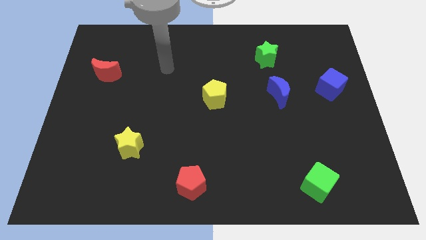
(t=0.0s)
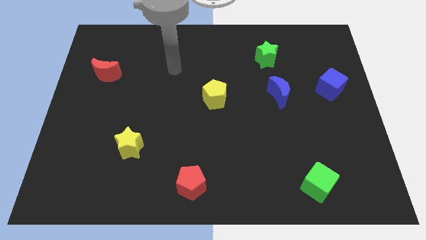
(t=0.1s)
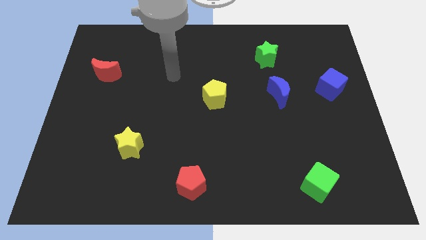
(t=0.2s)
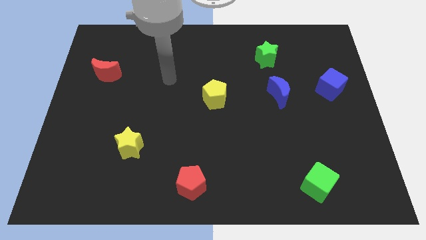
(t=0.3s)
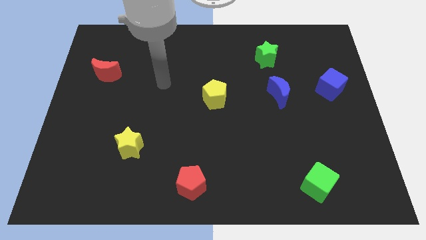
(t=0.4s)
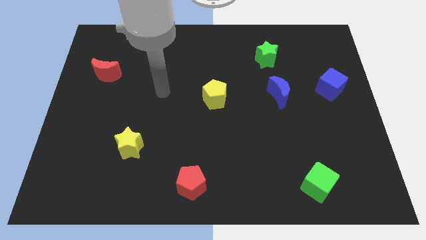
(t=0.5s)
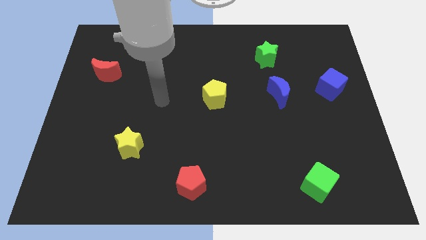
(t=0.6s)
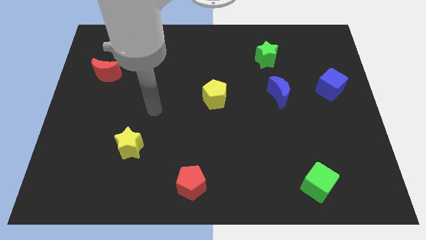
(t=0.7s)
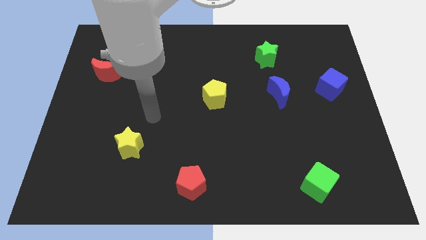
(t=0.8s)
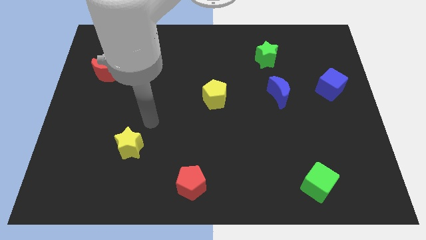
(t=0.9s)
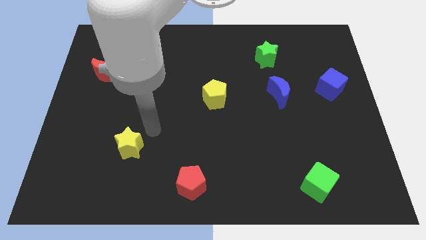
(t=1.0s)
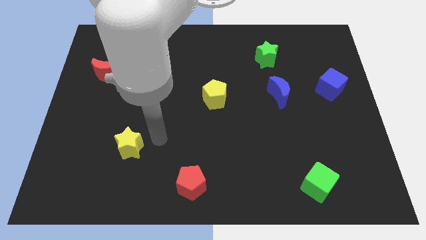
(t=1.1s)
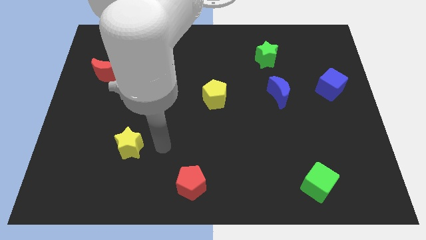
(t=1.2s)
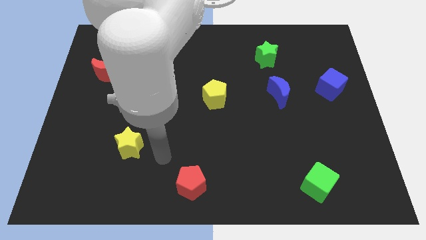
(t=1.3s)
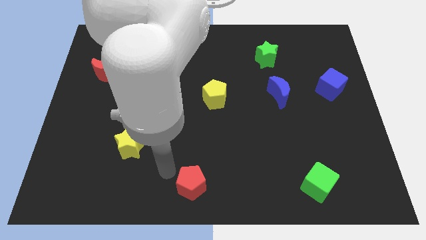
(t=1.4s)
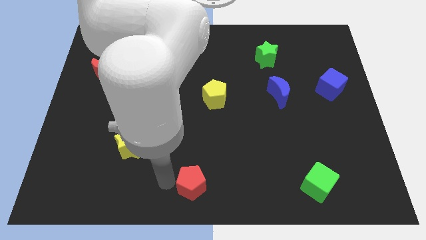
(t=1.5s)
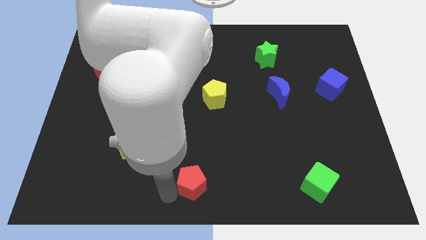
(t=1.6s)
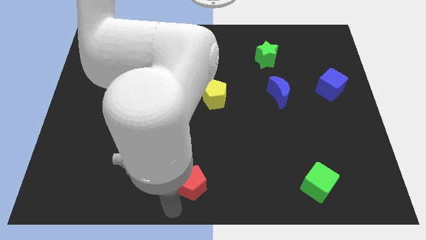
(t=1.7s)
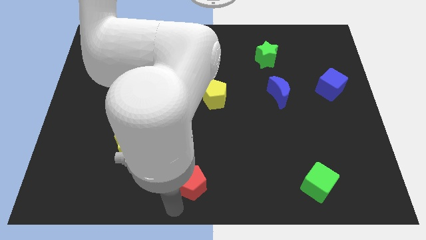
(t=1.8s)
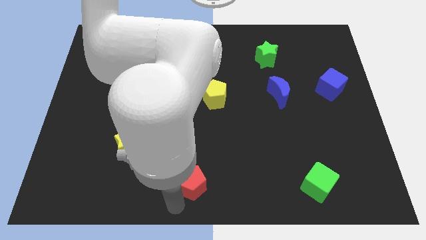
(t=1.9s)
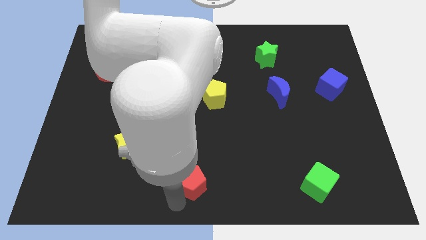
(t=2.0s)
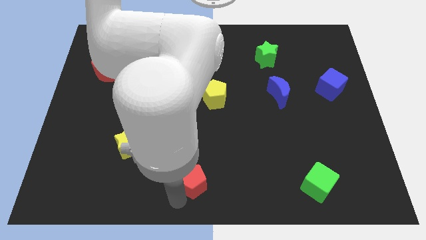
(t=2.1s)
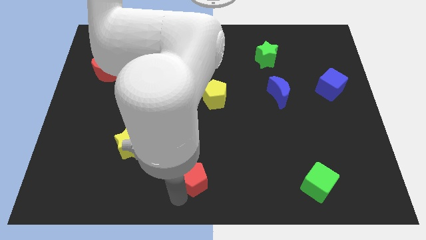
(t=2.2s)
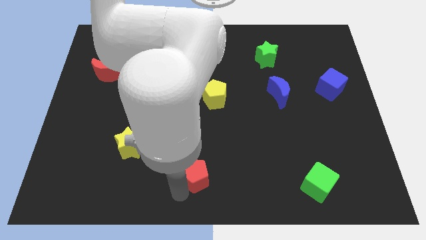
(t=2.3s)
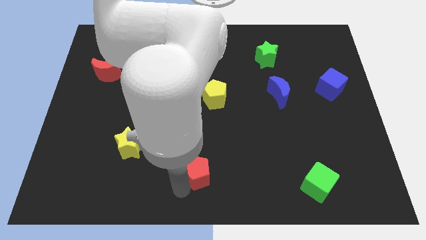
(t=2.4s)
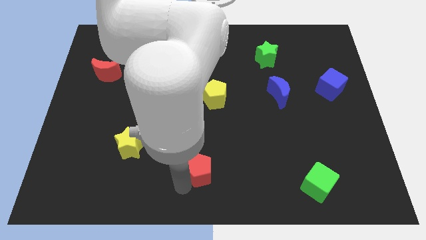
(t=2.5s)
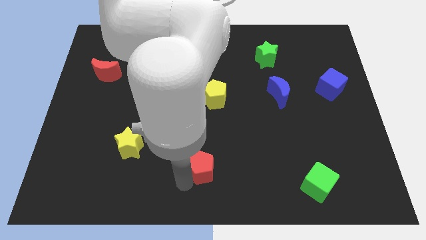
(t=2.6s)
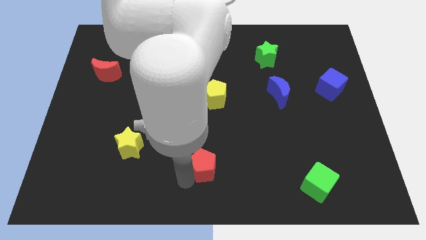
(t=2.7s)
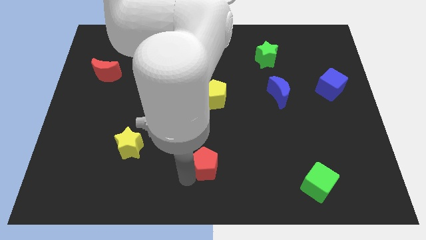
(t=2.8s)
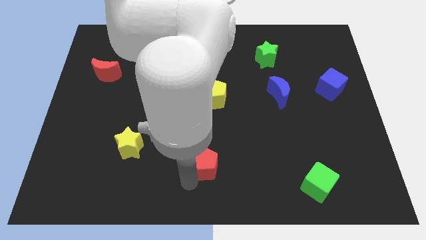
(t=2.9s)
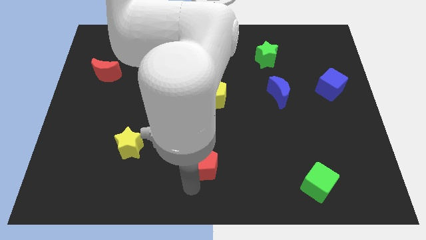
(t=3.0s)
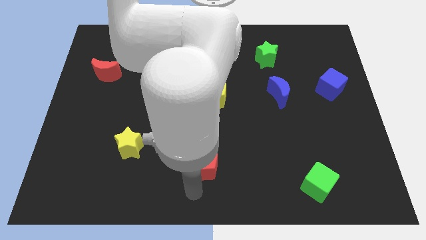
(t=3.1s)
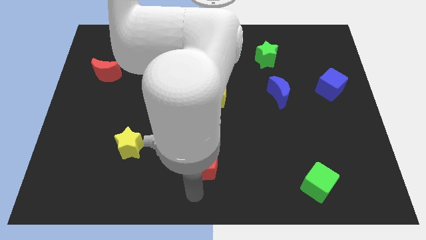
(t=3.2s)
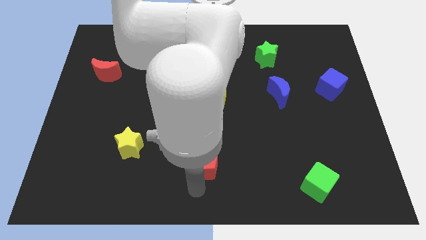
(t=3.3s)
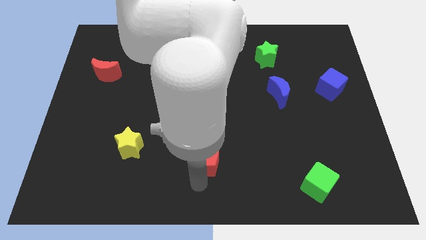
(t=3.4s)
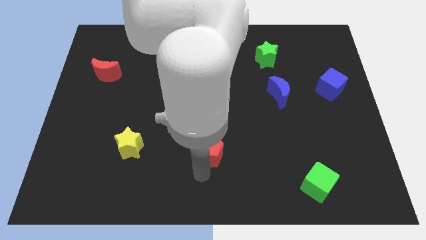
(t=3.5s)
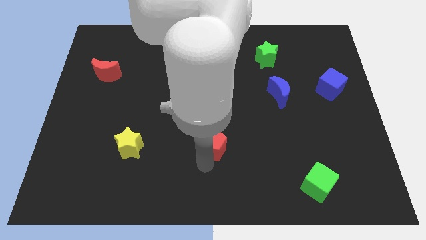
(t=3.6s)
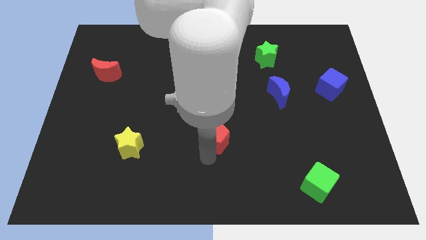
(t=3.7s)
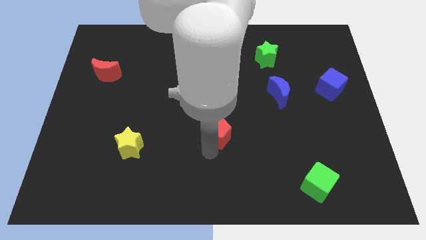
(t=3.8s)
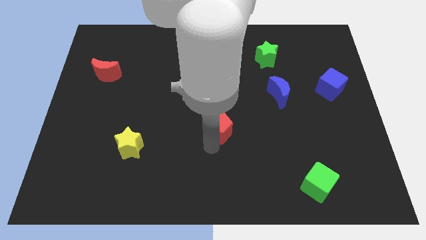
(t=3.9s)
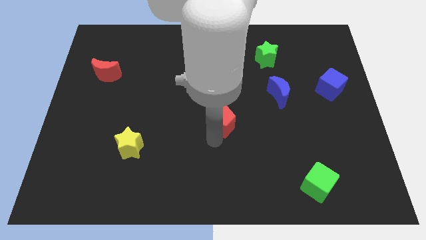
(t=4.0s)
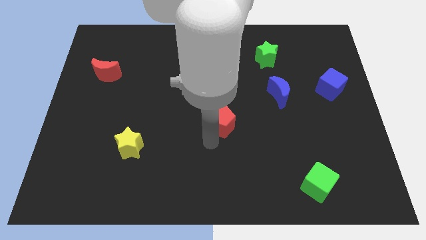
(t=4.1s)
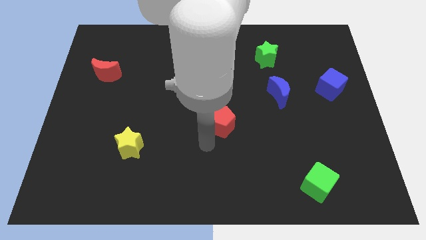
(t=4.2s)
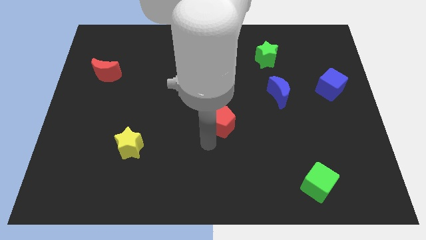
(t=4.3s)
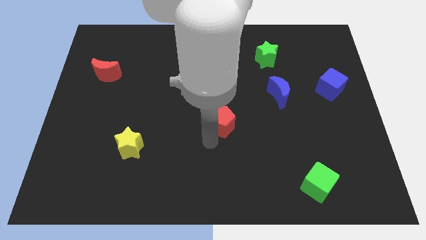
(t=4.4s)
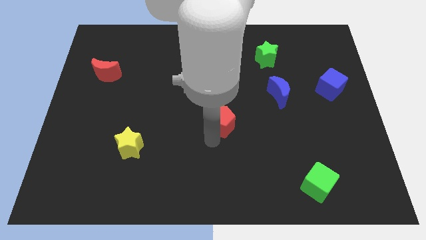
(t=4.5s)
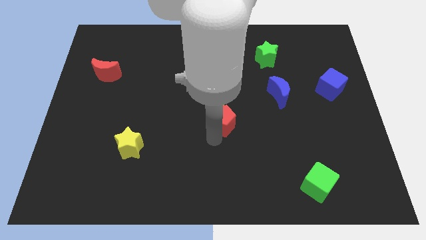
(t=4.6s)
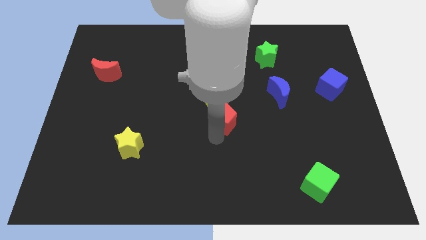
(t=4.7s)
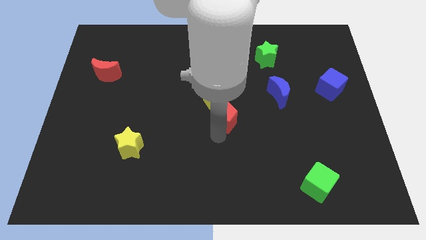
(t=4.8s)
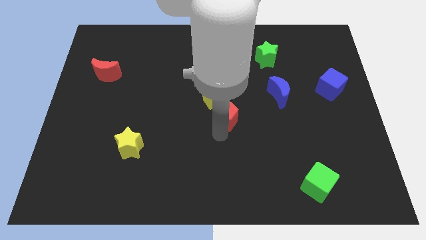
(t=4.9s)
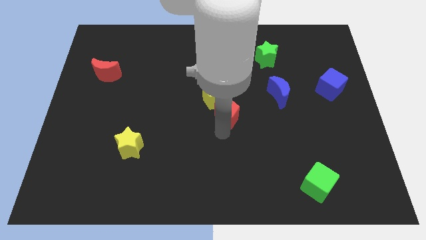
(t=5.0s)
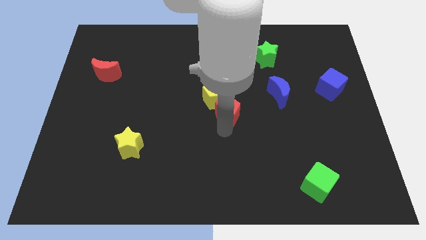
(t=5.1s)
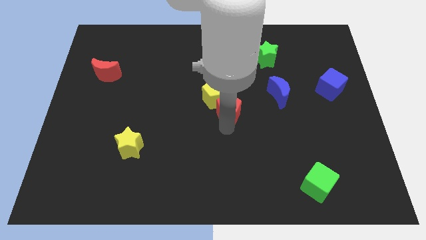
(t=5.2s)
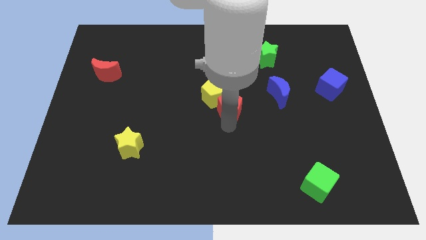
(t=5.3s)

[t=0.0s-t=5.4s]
push the red pentagon to the left side of the blue moon

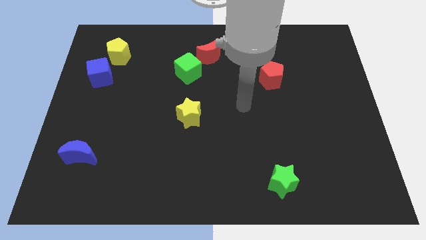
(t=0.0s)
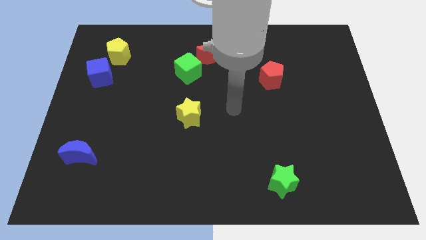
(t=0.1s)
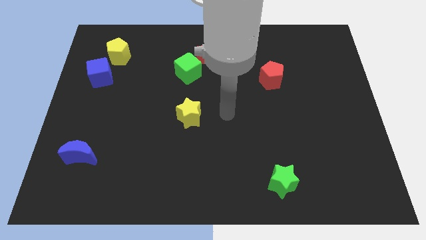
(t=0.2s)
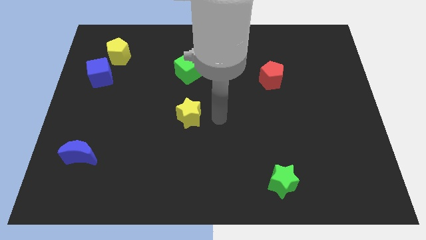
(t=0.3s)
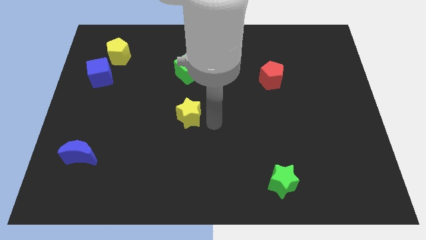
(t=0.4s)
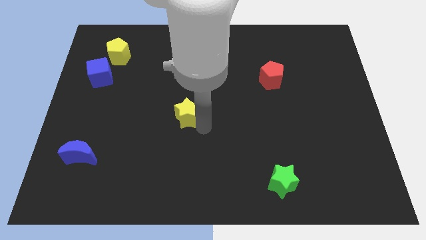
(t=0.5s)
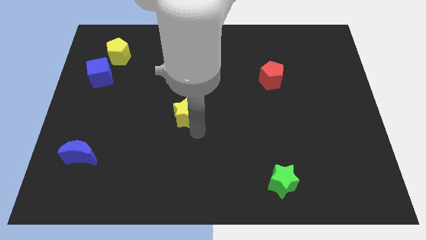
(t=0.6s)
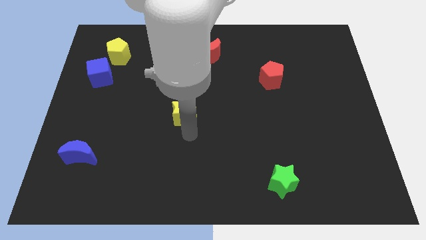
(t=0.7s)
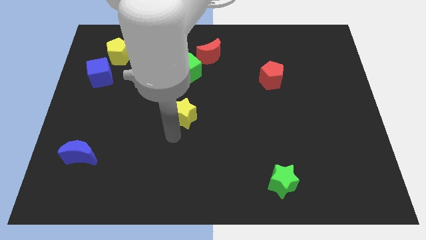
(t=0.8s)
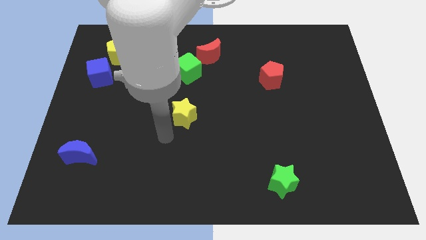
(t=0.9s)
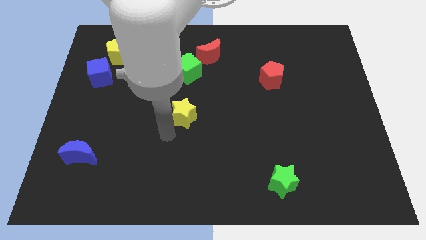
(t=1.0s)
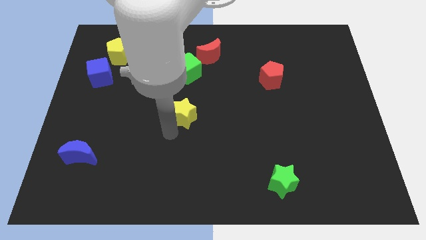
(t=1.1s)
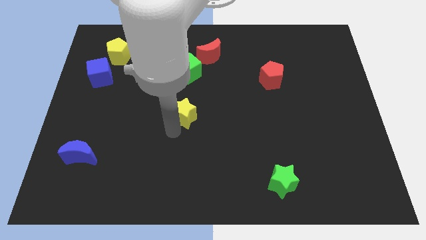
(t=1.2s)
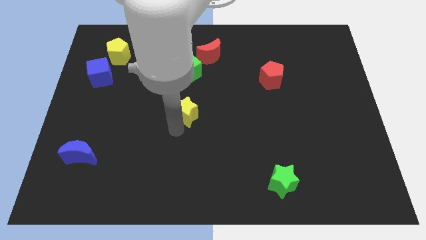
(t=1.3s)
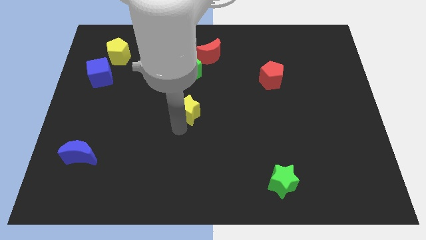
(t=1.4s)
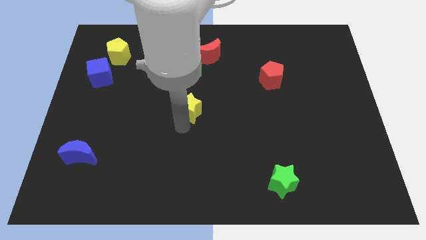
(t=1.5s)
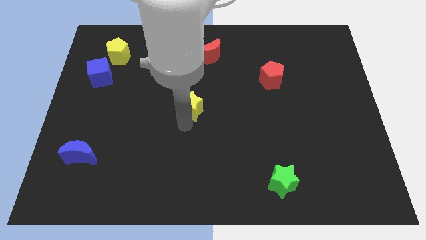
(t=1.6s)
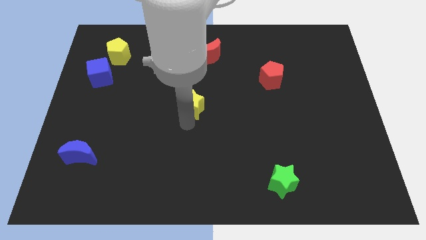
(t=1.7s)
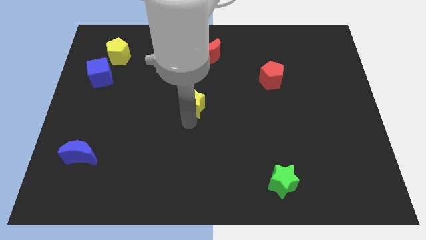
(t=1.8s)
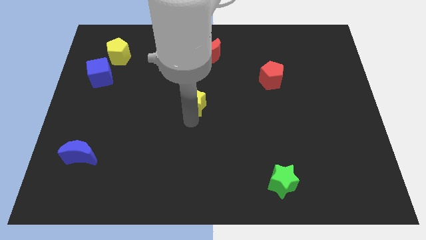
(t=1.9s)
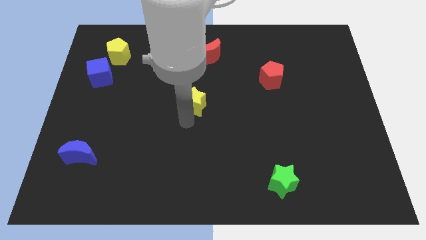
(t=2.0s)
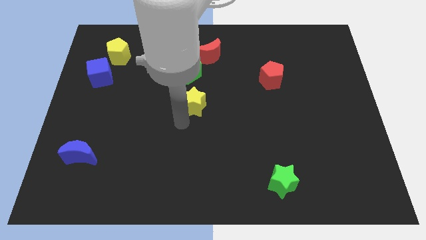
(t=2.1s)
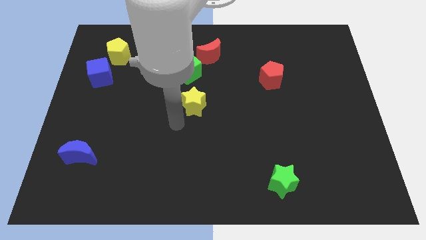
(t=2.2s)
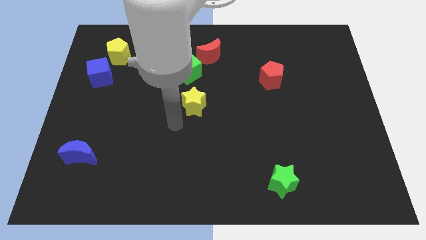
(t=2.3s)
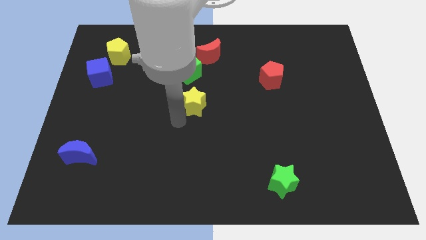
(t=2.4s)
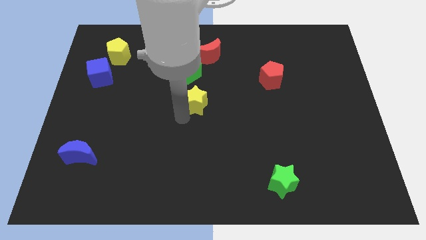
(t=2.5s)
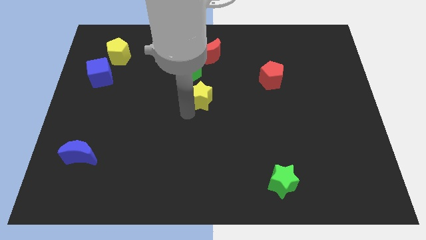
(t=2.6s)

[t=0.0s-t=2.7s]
put the yellow star to the bottom of the red moon
